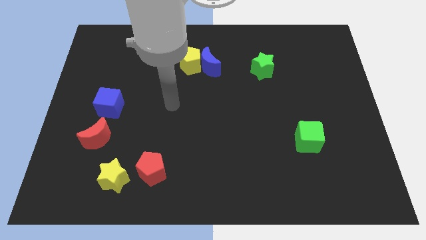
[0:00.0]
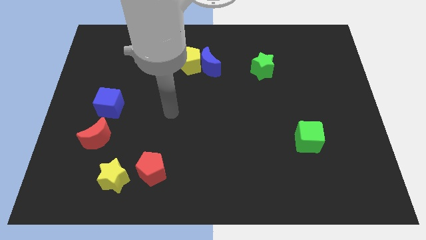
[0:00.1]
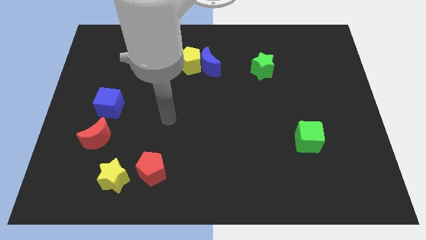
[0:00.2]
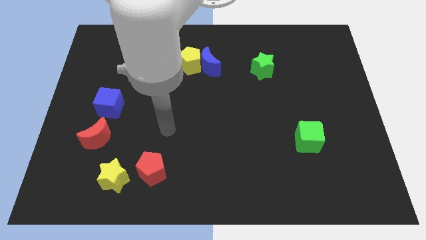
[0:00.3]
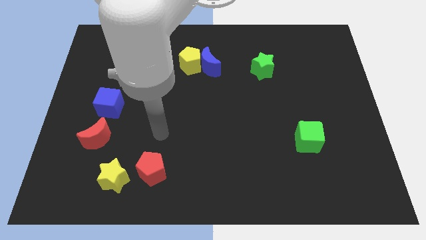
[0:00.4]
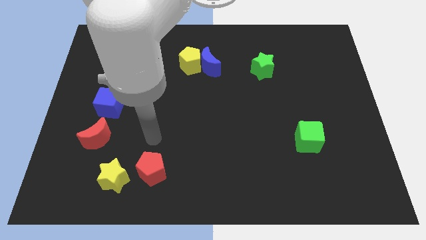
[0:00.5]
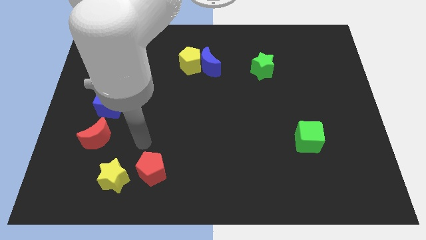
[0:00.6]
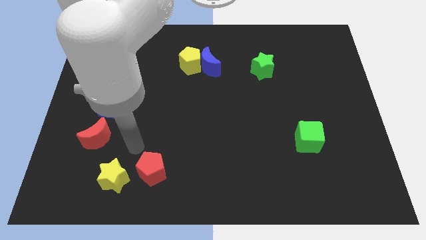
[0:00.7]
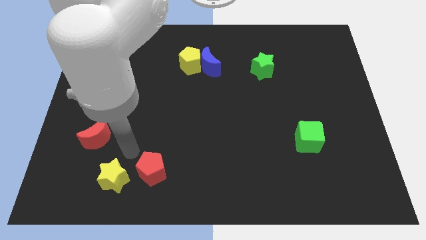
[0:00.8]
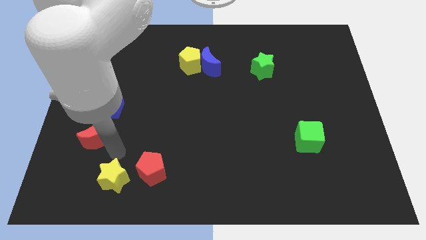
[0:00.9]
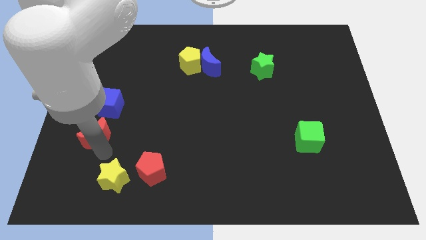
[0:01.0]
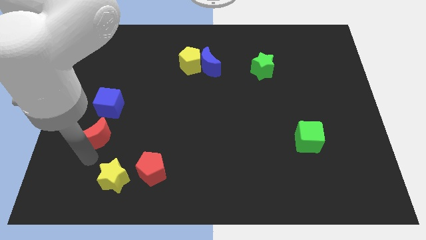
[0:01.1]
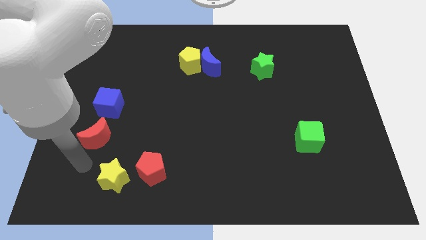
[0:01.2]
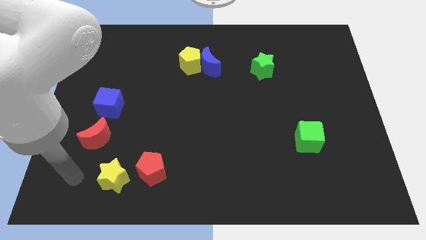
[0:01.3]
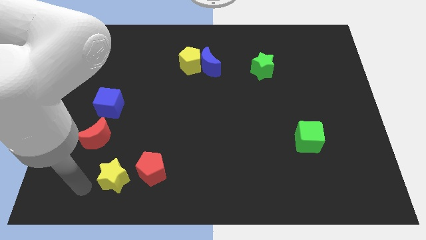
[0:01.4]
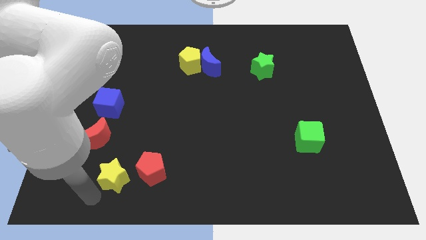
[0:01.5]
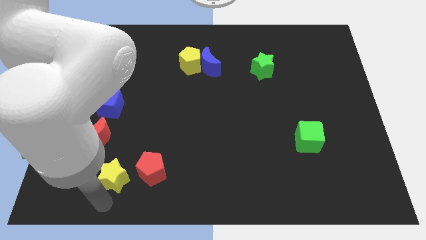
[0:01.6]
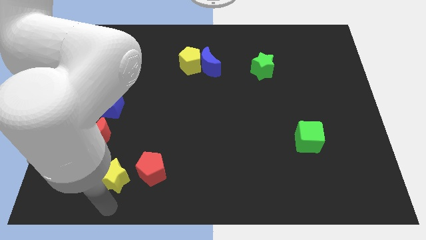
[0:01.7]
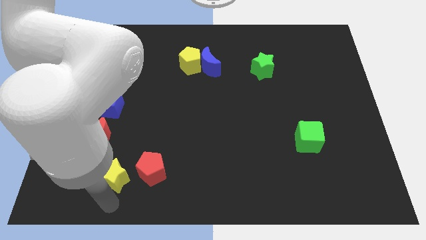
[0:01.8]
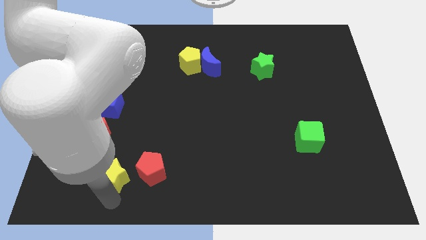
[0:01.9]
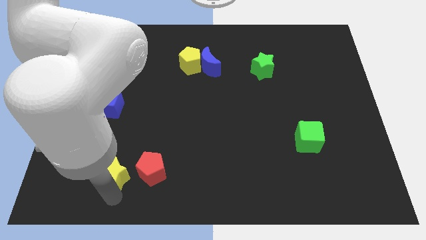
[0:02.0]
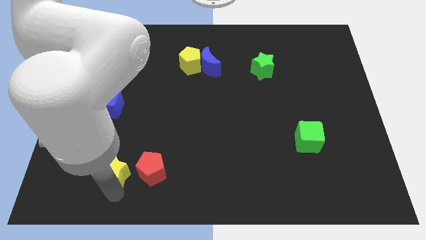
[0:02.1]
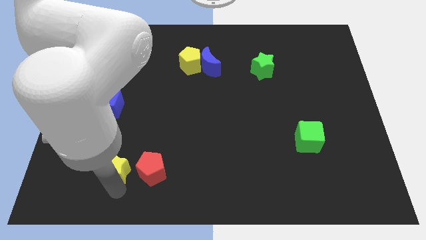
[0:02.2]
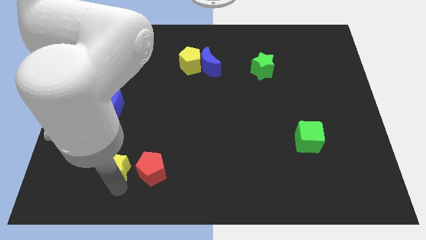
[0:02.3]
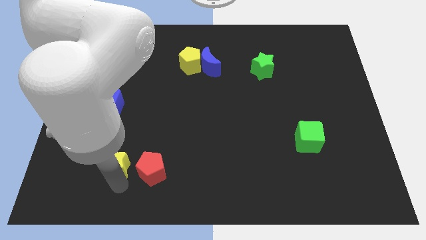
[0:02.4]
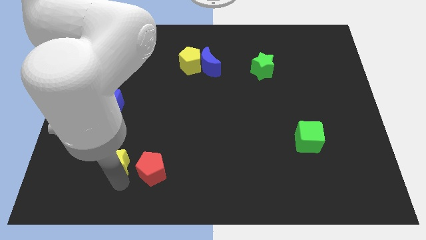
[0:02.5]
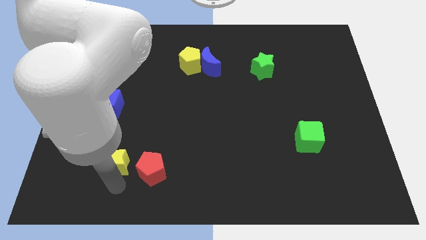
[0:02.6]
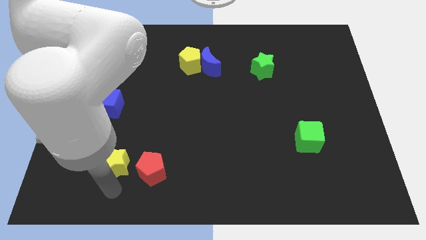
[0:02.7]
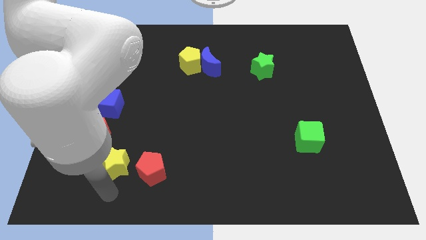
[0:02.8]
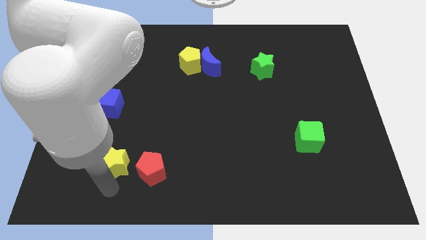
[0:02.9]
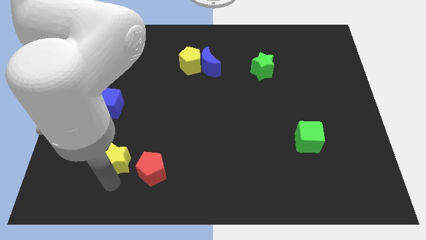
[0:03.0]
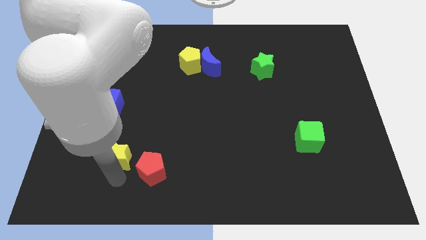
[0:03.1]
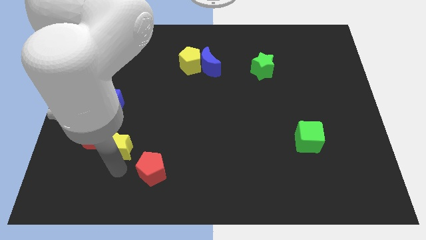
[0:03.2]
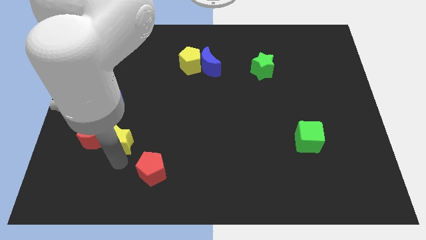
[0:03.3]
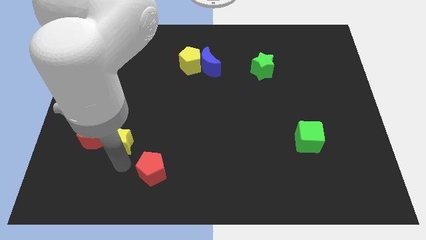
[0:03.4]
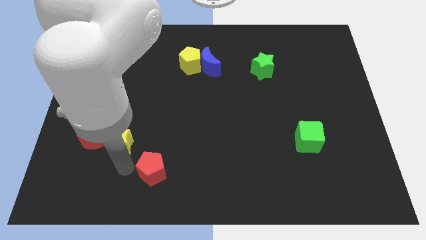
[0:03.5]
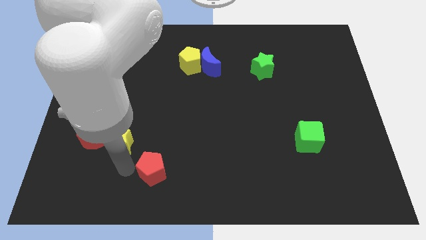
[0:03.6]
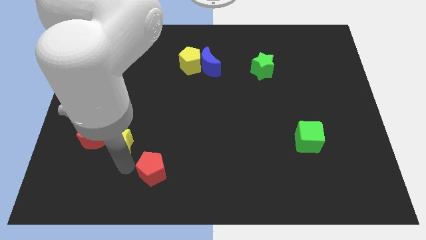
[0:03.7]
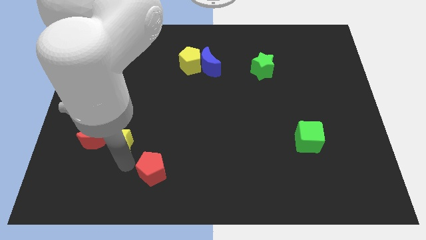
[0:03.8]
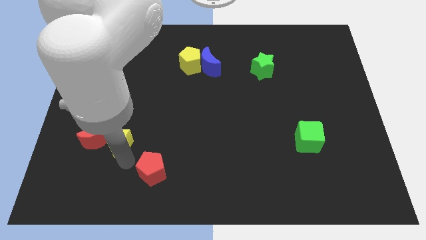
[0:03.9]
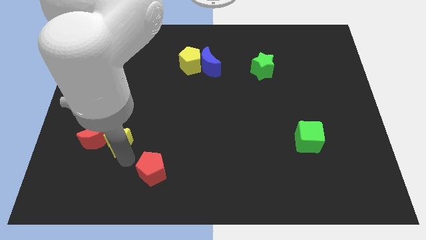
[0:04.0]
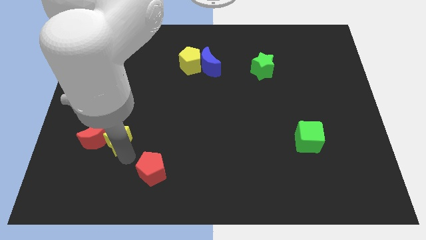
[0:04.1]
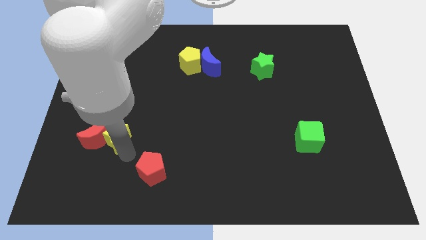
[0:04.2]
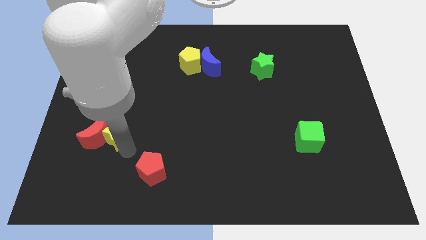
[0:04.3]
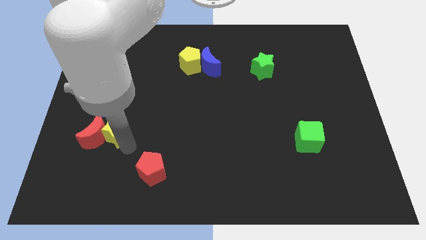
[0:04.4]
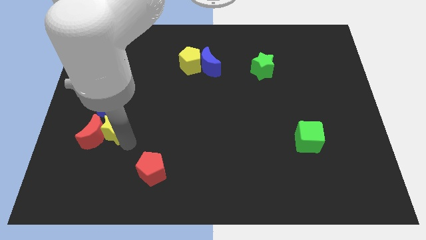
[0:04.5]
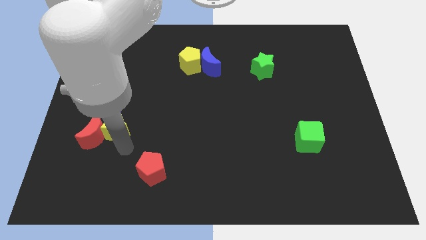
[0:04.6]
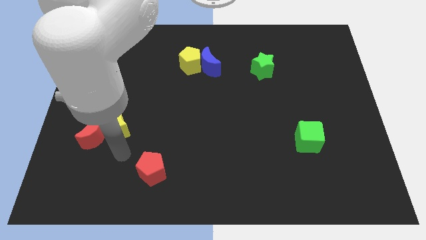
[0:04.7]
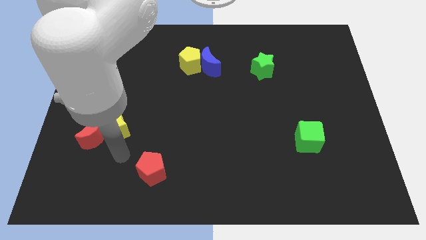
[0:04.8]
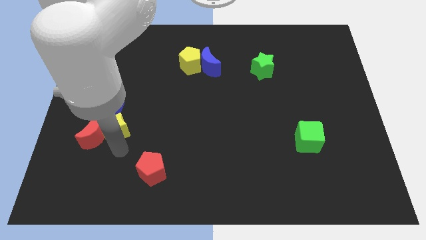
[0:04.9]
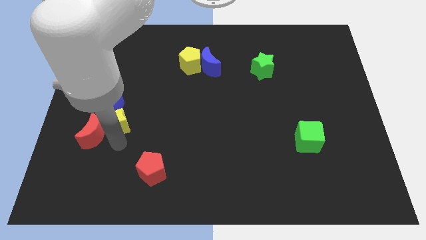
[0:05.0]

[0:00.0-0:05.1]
slide the yellow star close to the blue cube

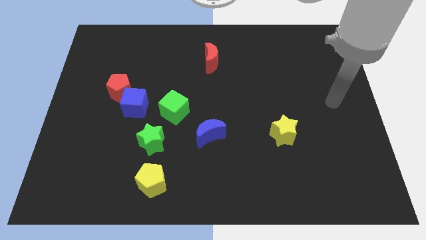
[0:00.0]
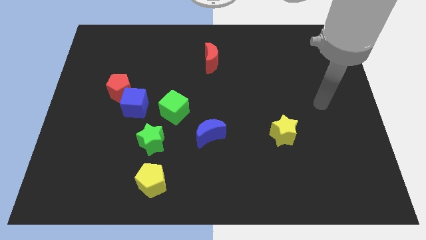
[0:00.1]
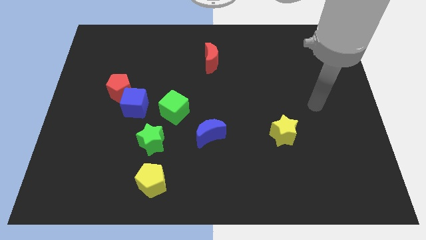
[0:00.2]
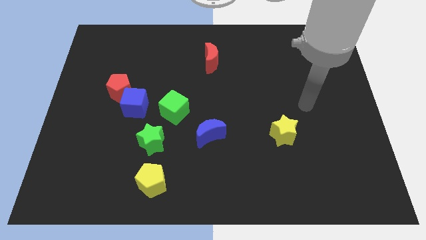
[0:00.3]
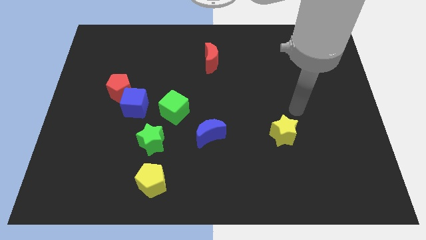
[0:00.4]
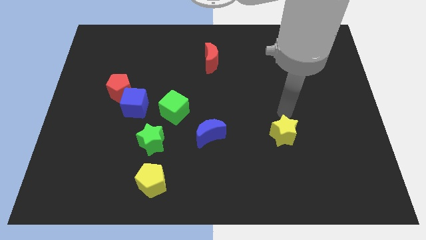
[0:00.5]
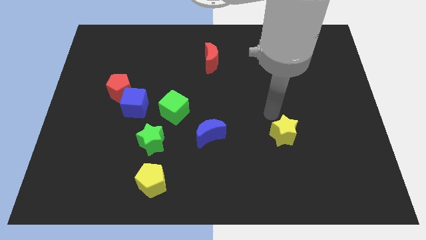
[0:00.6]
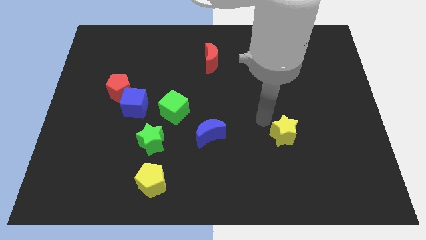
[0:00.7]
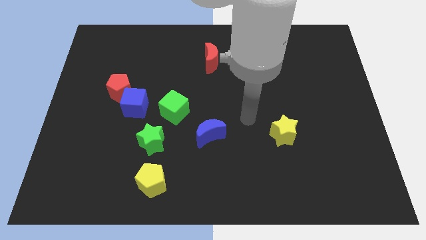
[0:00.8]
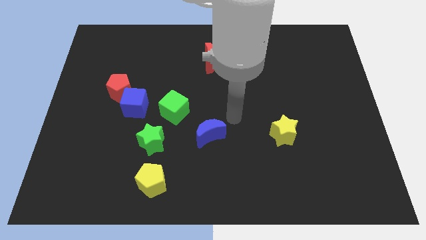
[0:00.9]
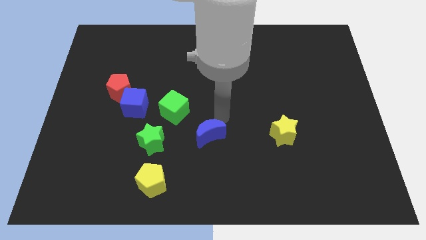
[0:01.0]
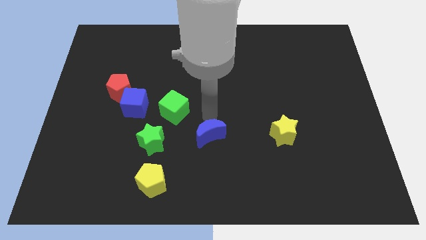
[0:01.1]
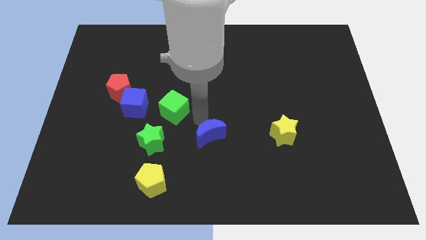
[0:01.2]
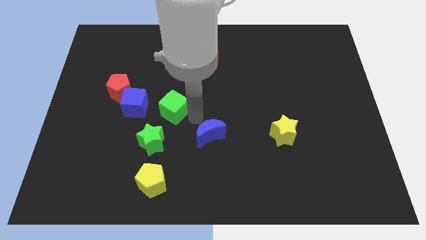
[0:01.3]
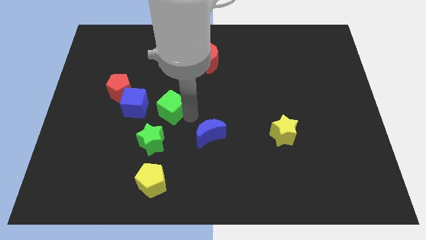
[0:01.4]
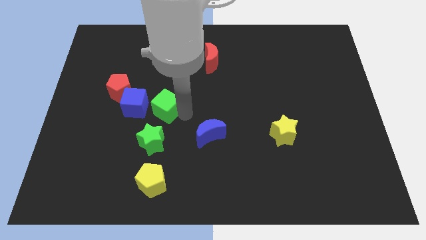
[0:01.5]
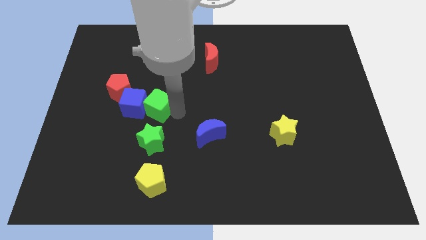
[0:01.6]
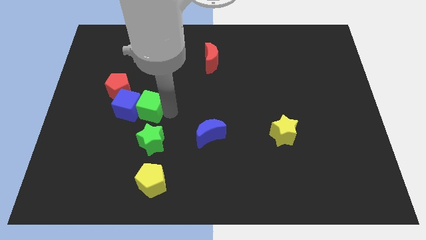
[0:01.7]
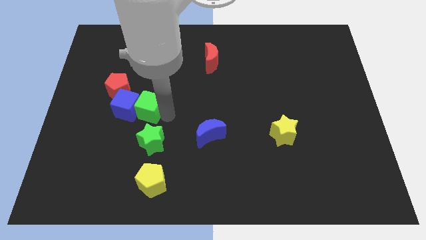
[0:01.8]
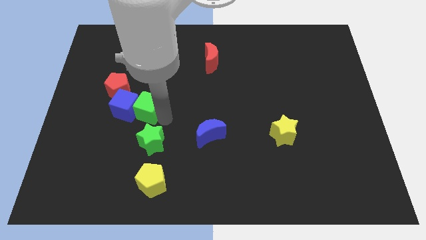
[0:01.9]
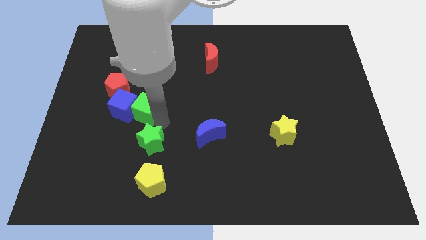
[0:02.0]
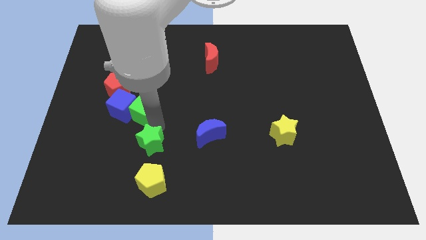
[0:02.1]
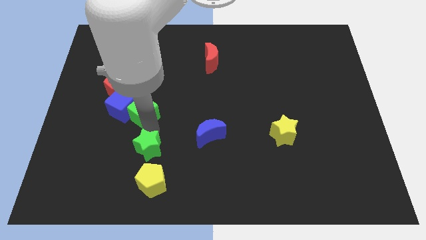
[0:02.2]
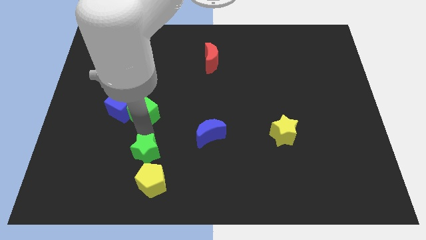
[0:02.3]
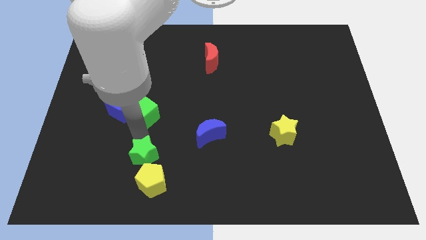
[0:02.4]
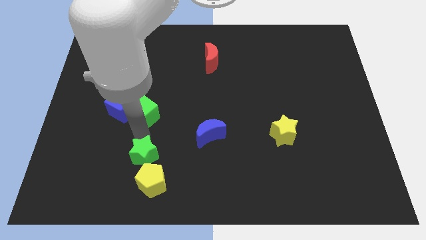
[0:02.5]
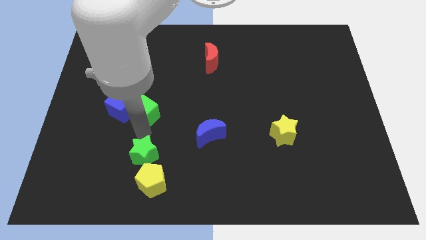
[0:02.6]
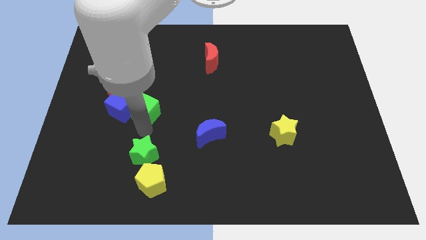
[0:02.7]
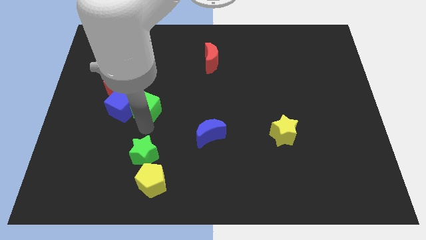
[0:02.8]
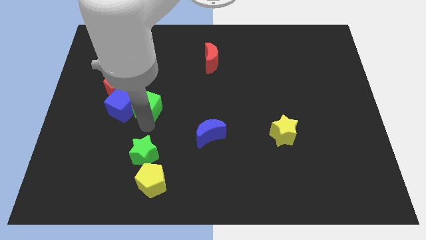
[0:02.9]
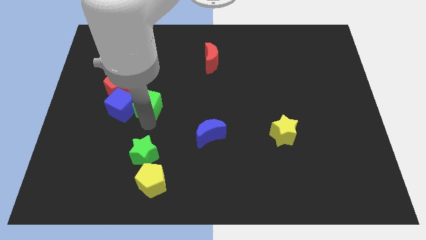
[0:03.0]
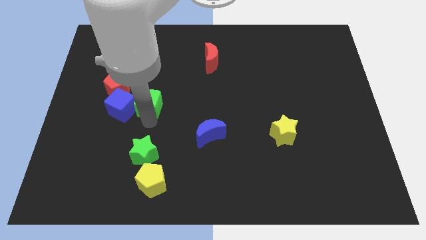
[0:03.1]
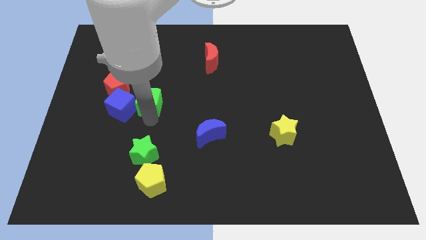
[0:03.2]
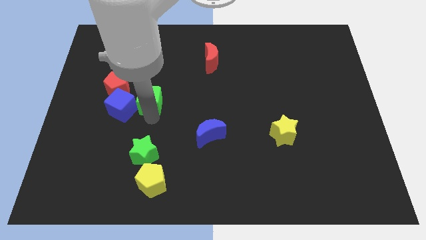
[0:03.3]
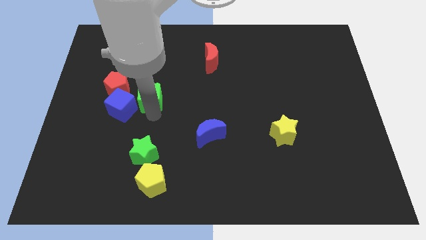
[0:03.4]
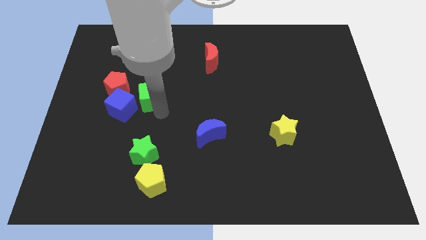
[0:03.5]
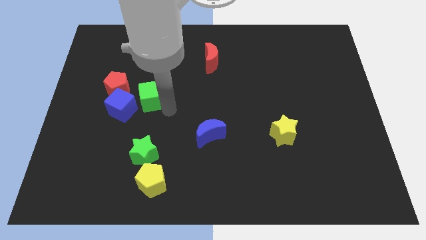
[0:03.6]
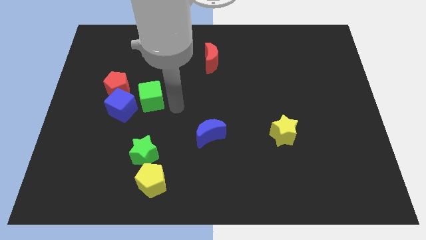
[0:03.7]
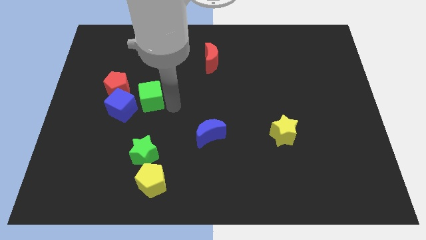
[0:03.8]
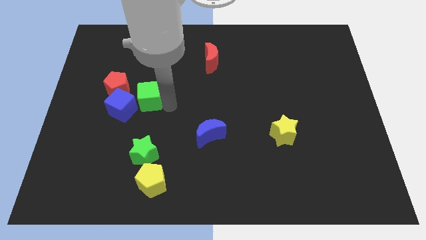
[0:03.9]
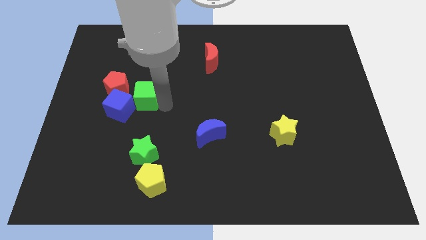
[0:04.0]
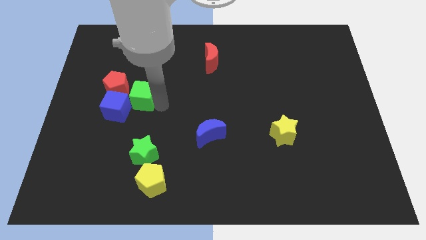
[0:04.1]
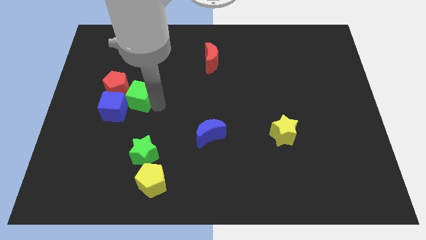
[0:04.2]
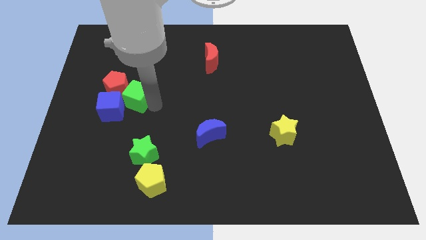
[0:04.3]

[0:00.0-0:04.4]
push the green cube next to the red pentagon
